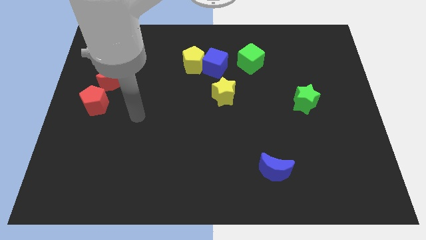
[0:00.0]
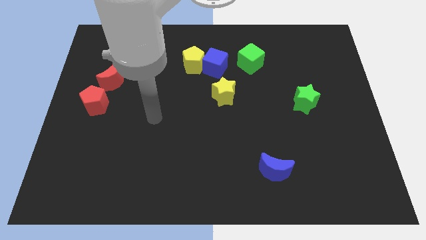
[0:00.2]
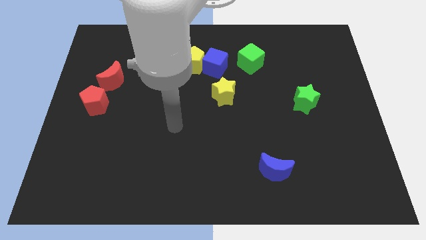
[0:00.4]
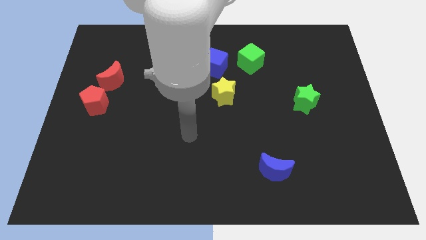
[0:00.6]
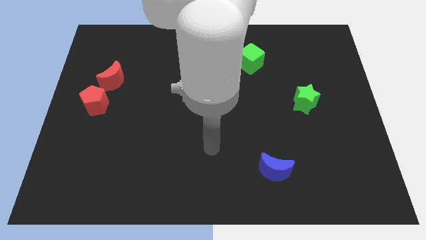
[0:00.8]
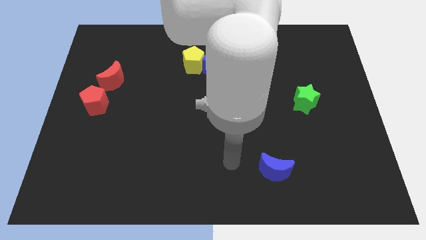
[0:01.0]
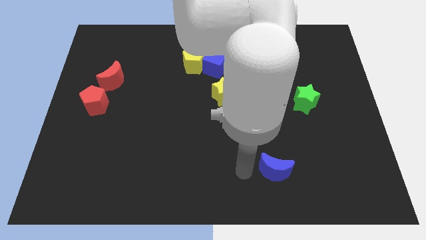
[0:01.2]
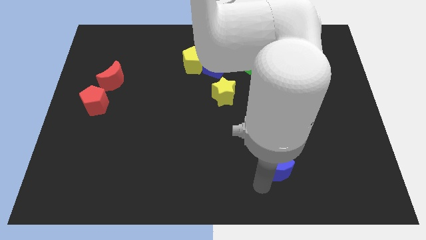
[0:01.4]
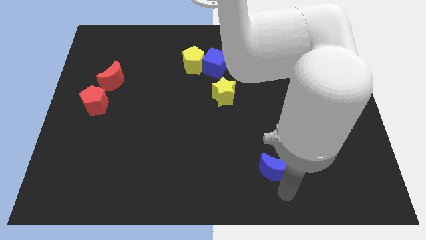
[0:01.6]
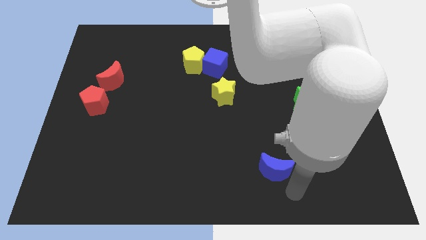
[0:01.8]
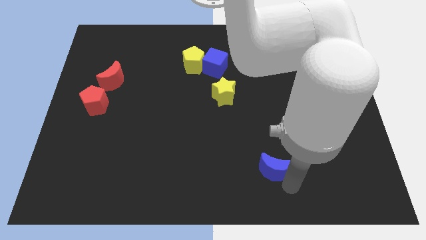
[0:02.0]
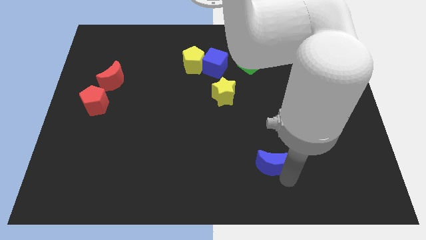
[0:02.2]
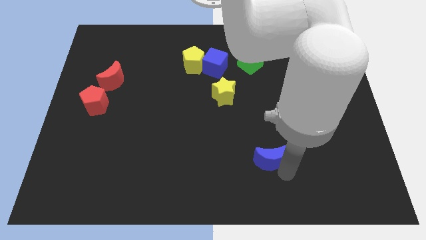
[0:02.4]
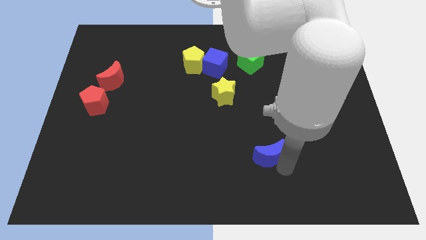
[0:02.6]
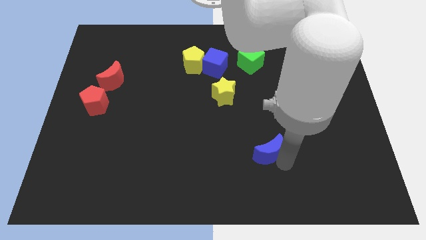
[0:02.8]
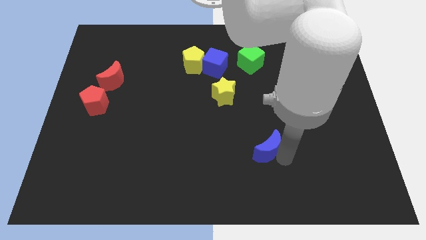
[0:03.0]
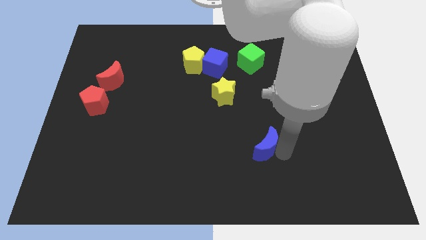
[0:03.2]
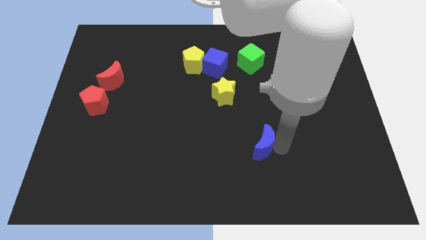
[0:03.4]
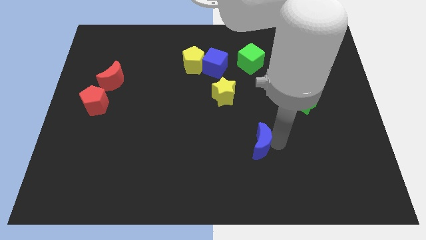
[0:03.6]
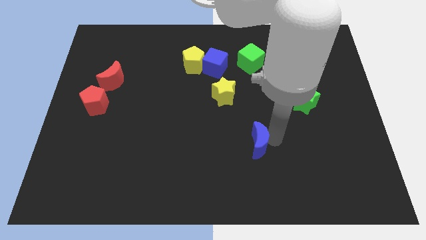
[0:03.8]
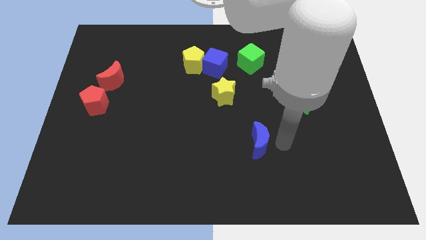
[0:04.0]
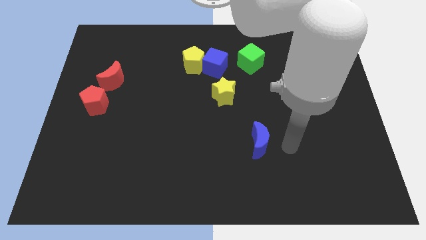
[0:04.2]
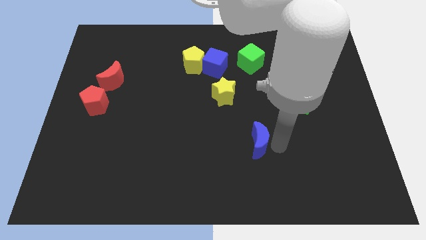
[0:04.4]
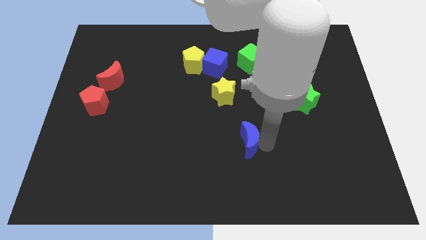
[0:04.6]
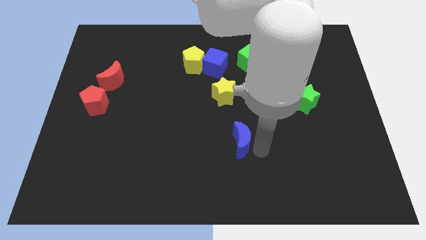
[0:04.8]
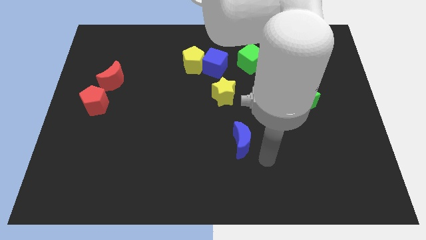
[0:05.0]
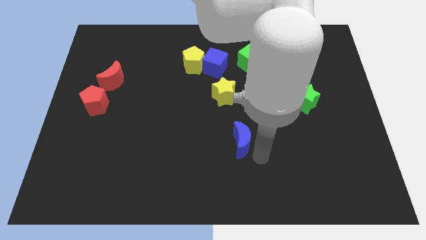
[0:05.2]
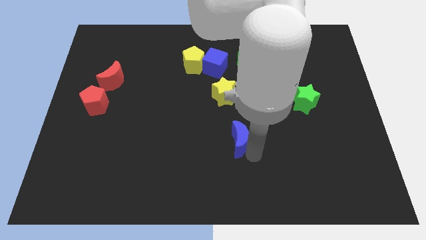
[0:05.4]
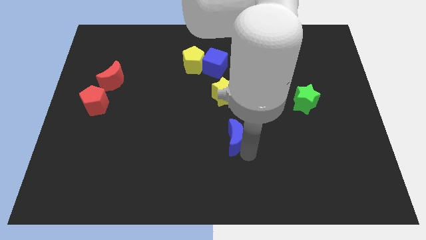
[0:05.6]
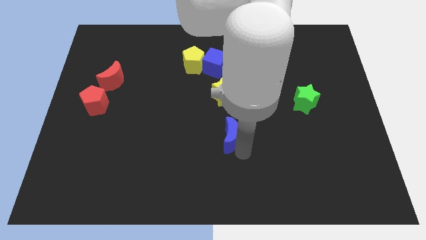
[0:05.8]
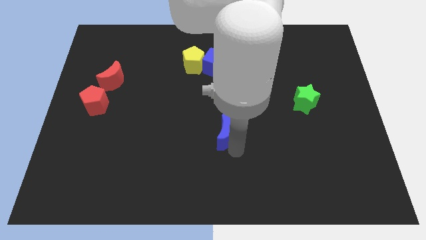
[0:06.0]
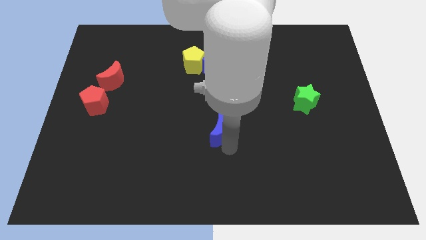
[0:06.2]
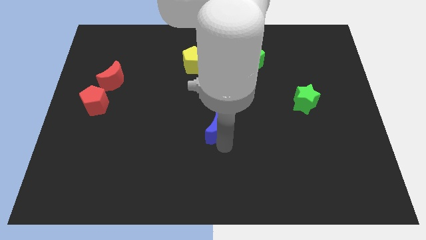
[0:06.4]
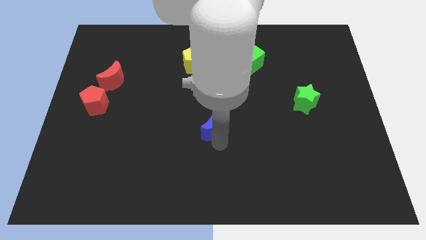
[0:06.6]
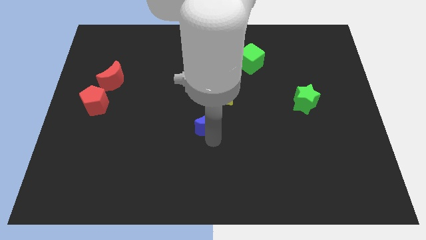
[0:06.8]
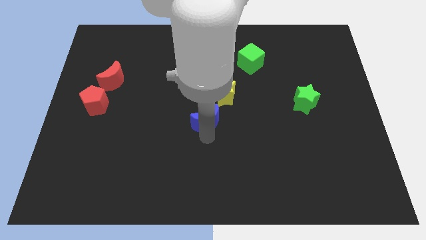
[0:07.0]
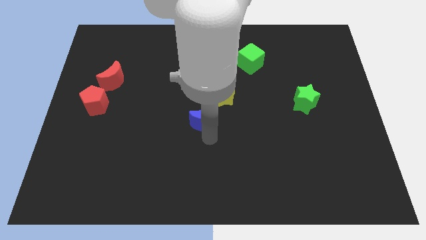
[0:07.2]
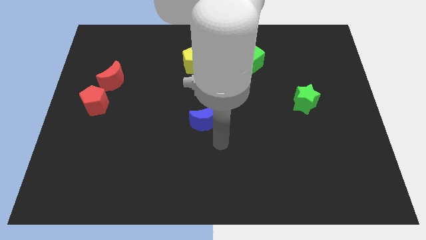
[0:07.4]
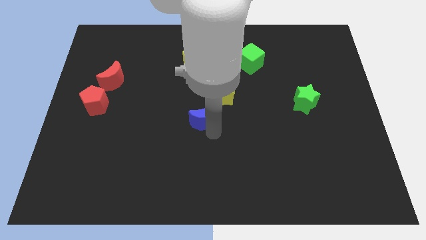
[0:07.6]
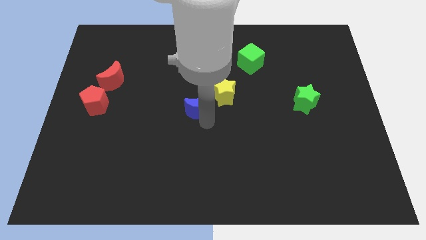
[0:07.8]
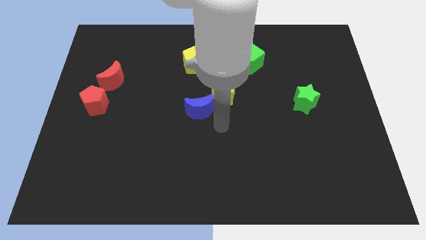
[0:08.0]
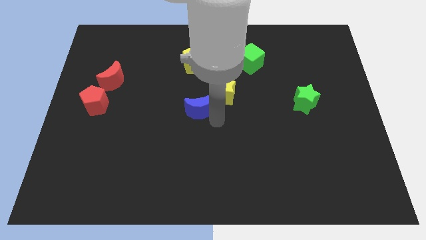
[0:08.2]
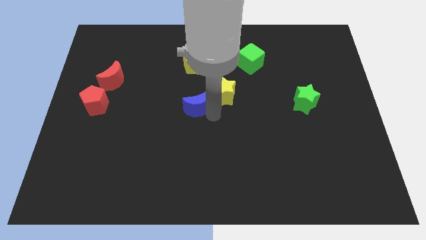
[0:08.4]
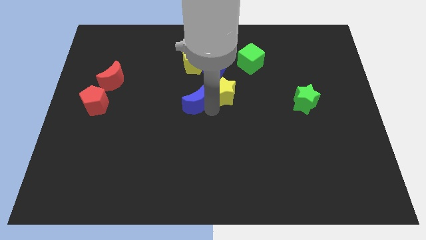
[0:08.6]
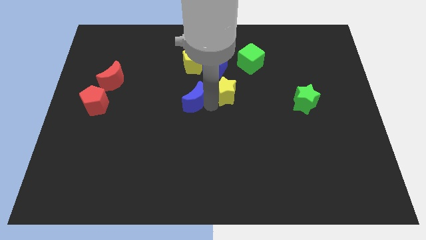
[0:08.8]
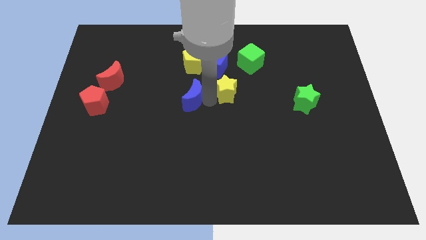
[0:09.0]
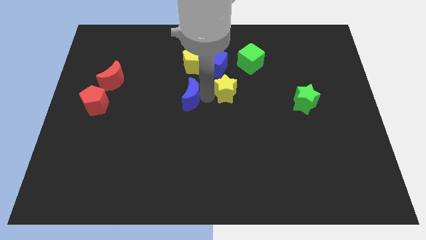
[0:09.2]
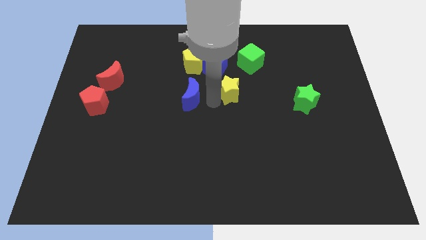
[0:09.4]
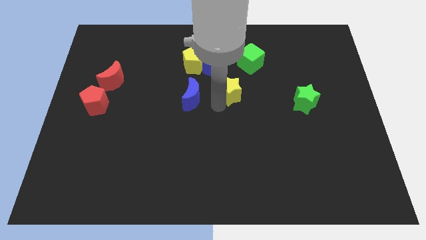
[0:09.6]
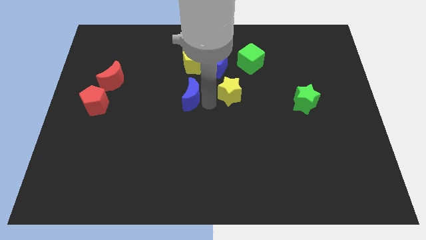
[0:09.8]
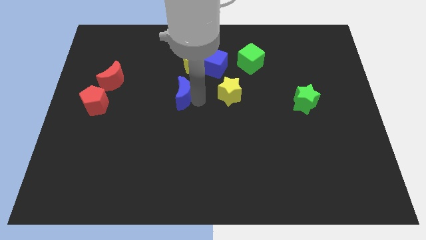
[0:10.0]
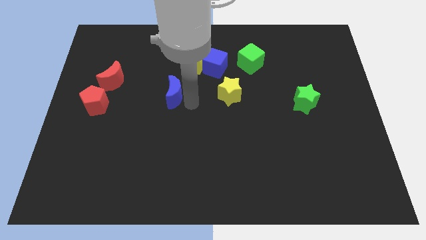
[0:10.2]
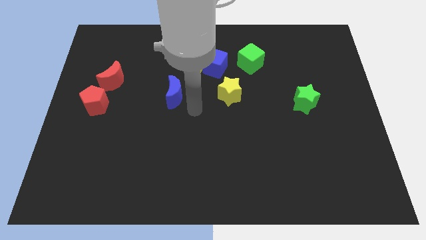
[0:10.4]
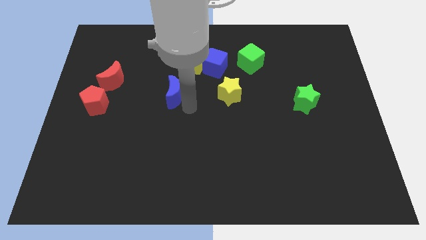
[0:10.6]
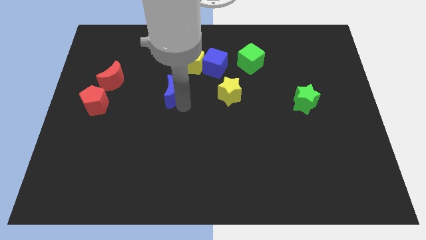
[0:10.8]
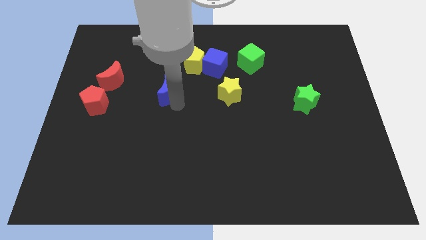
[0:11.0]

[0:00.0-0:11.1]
move the blue moon to the right of the red moon

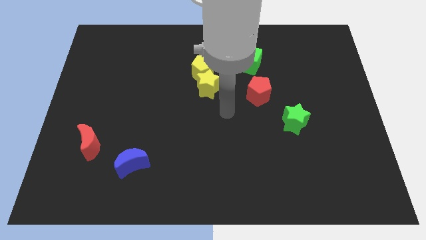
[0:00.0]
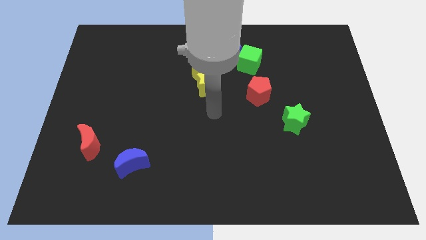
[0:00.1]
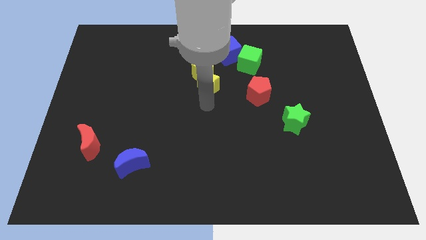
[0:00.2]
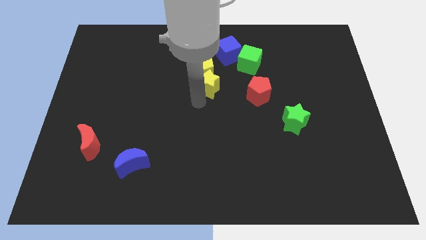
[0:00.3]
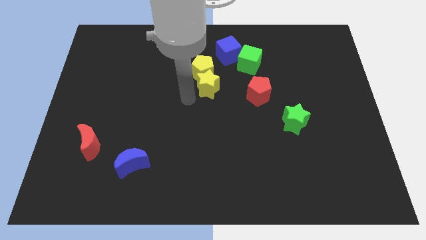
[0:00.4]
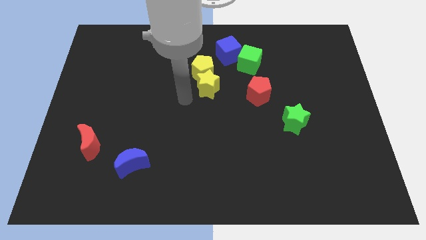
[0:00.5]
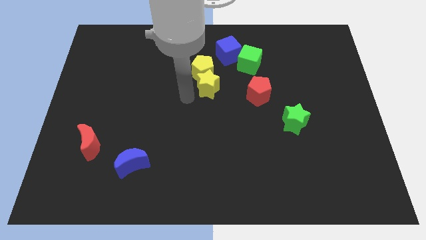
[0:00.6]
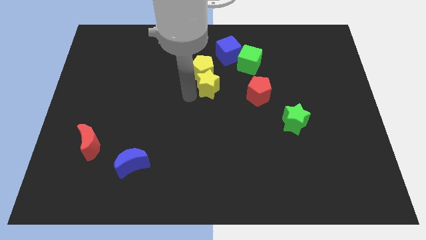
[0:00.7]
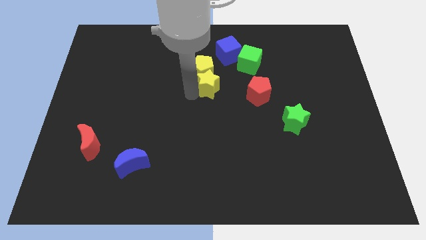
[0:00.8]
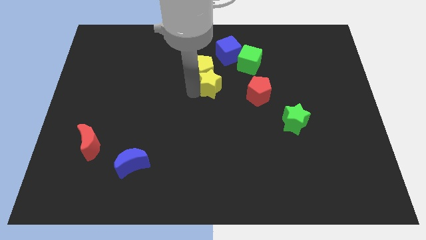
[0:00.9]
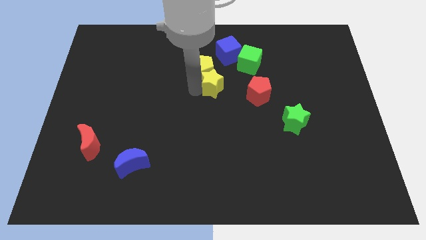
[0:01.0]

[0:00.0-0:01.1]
move the yellow star to the bottom left of the green cube
